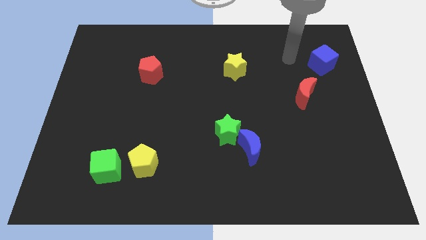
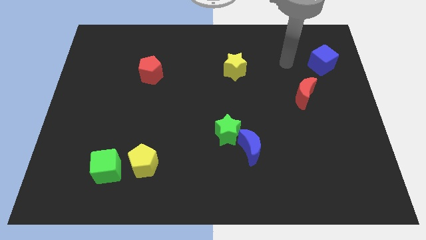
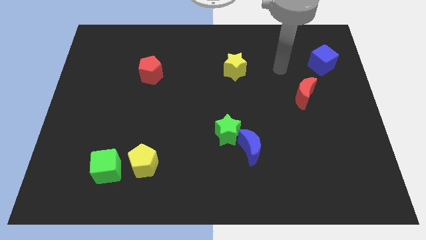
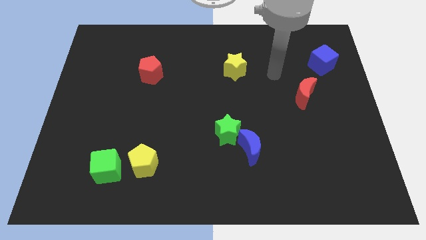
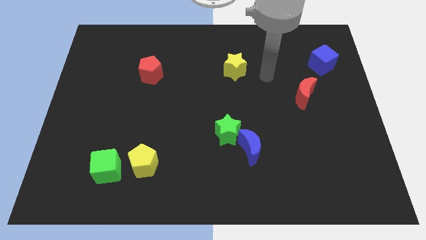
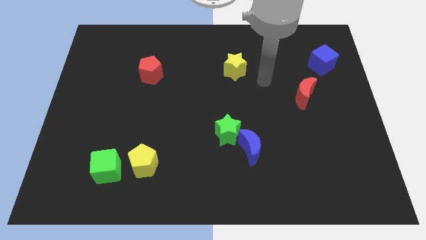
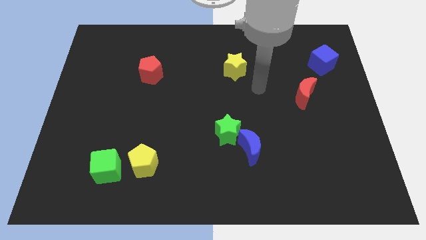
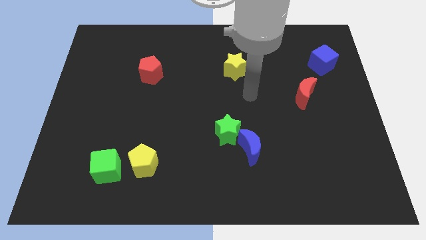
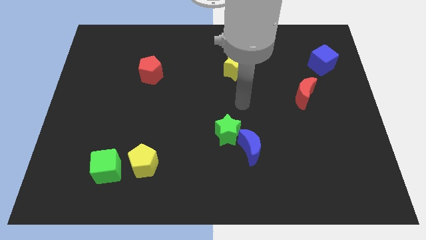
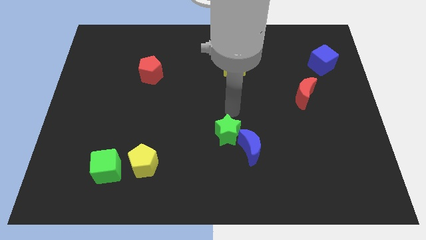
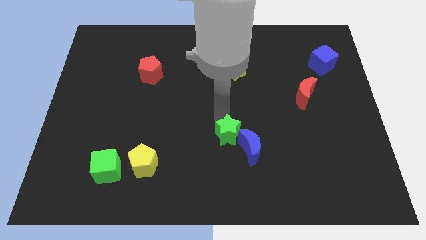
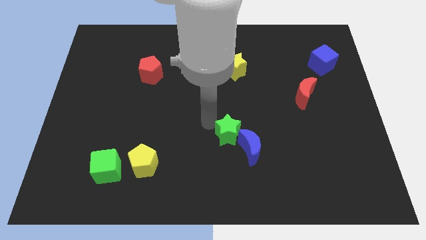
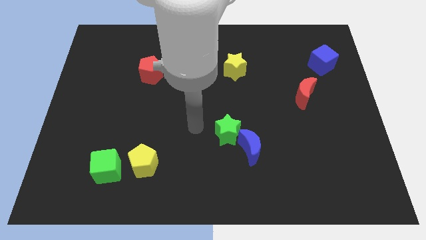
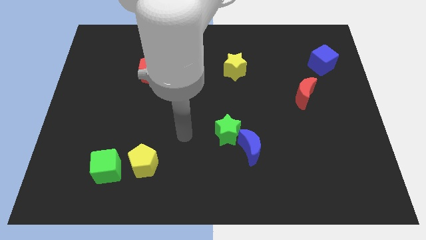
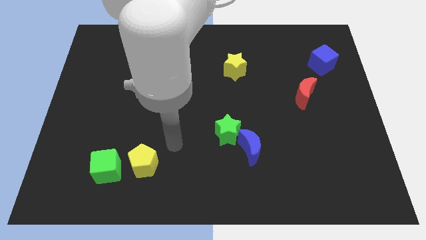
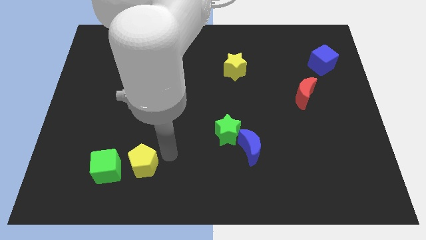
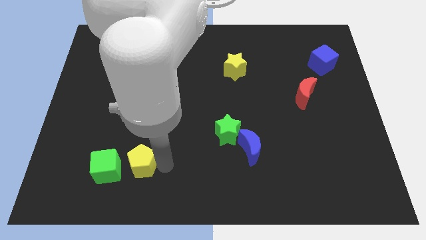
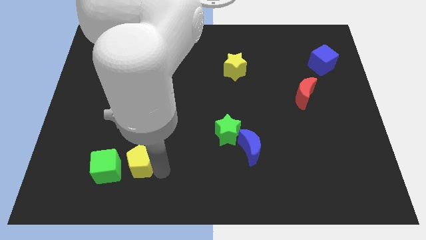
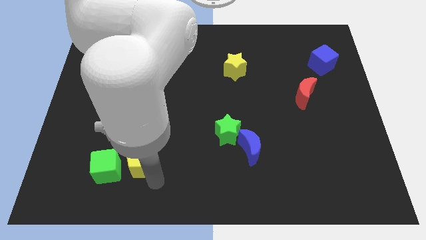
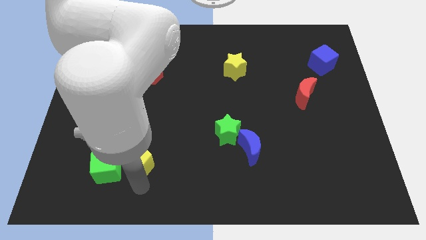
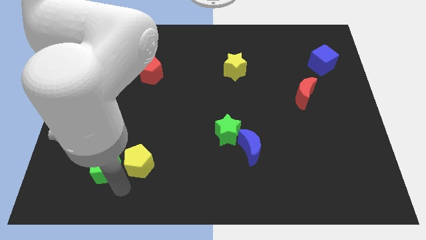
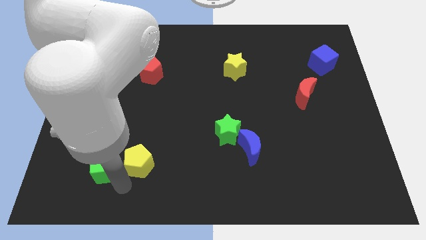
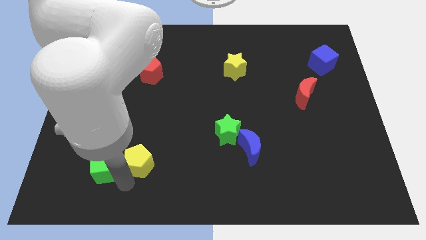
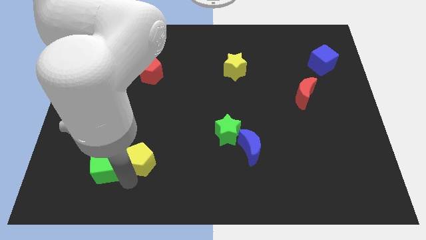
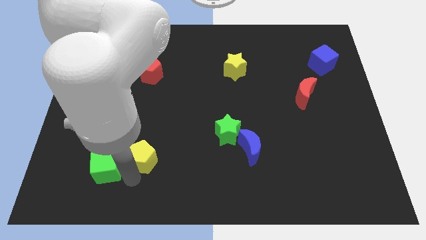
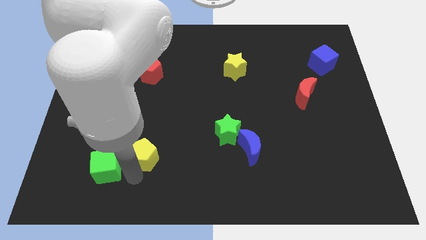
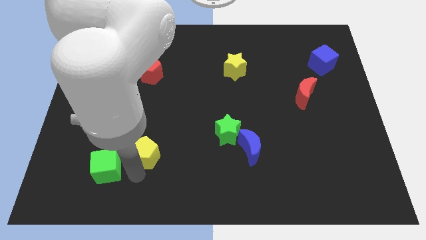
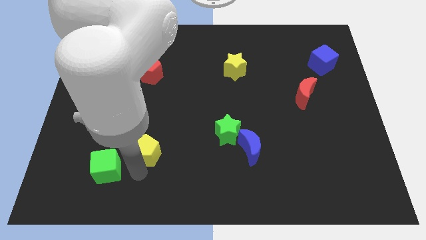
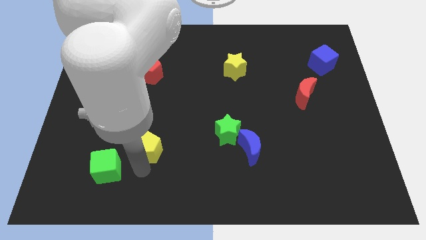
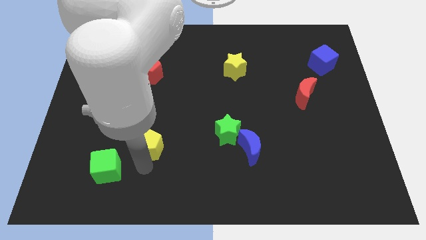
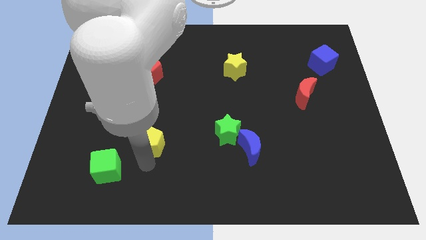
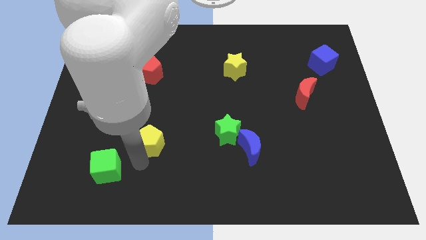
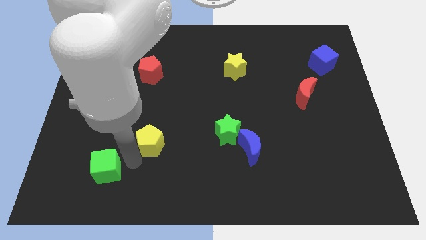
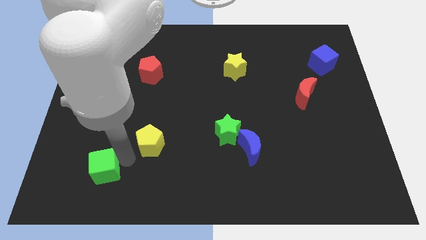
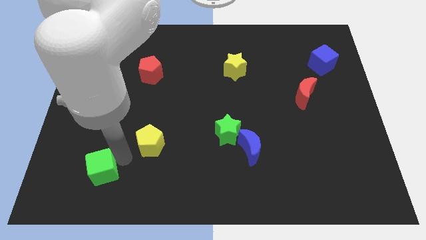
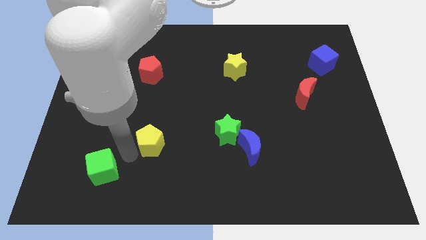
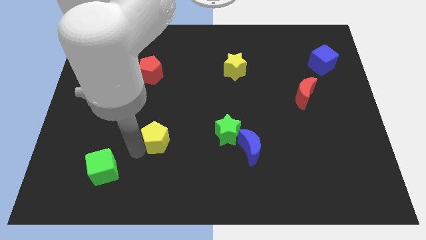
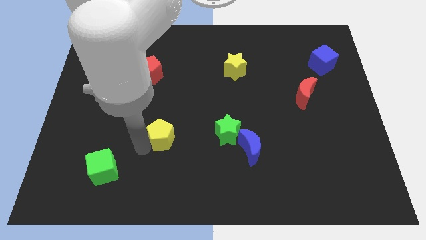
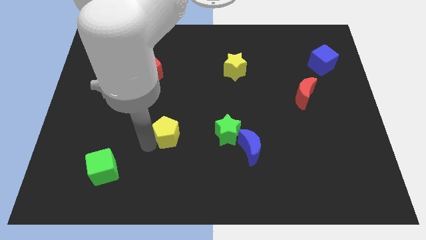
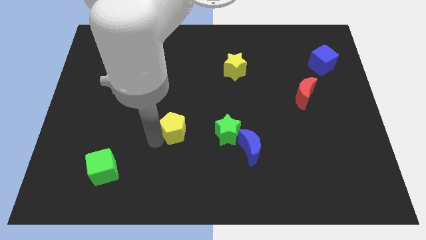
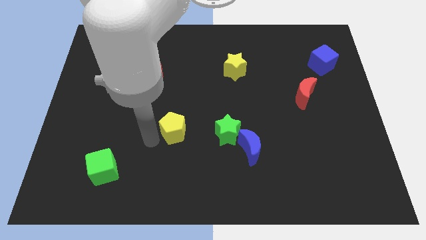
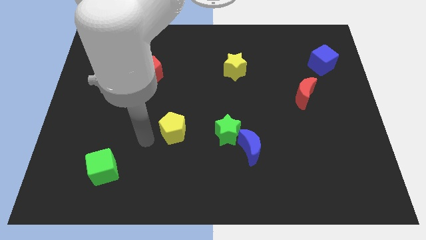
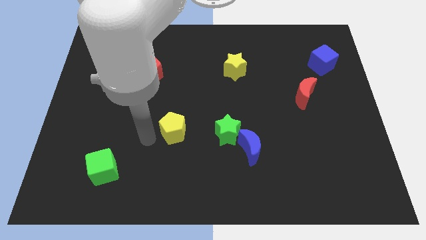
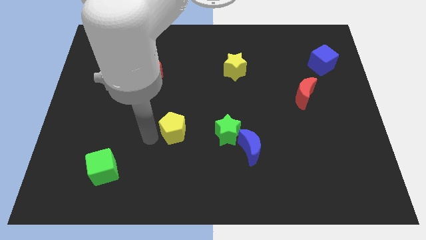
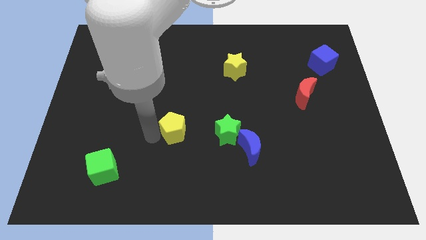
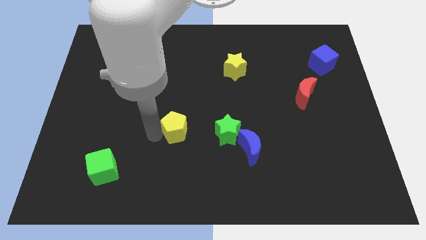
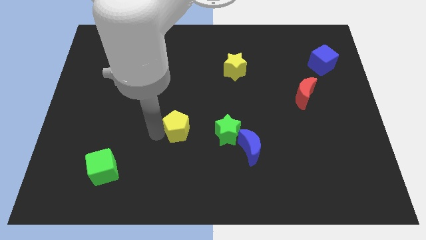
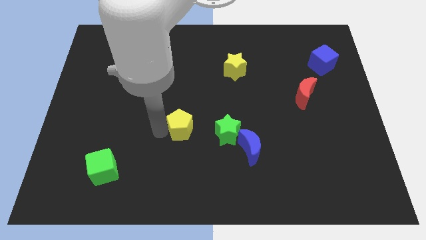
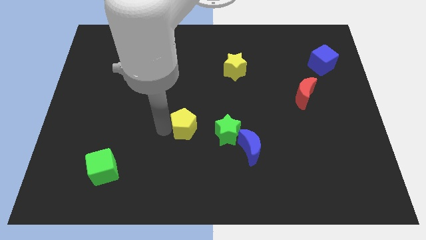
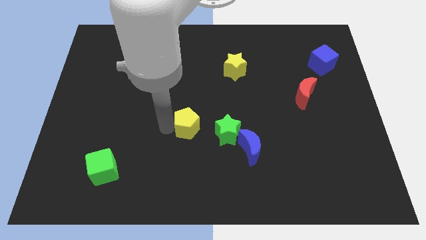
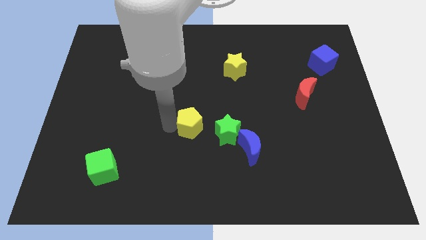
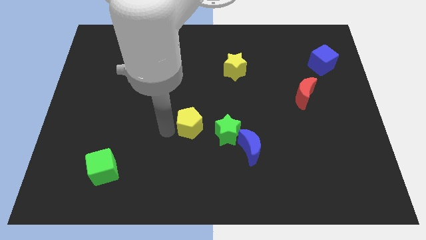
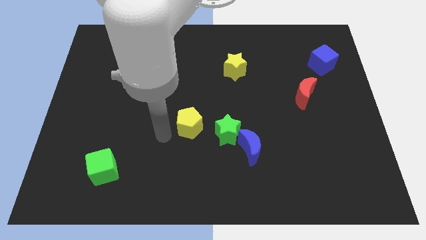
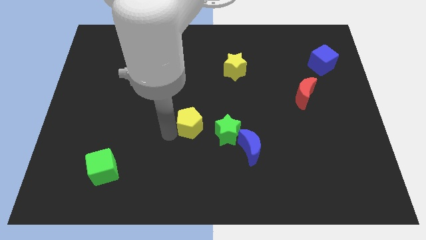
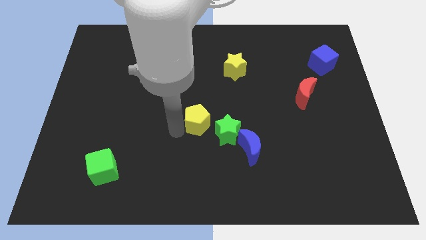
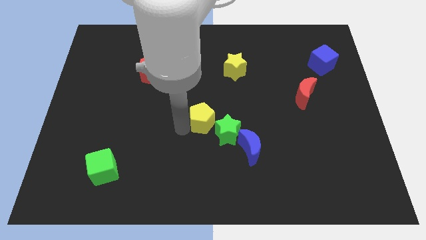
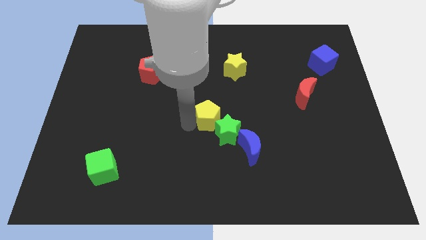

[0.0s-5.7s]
slide the yellow pentagon diagonally up and to the left of the blue moon

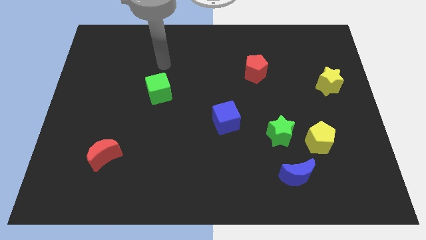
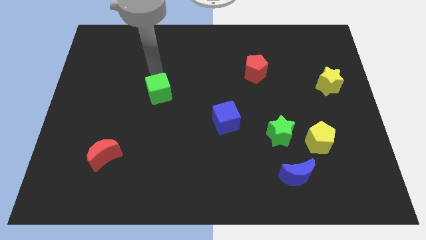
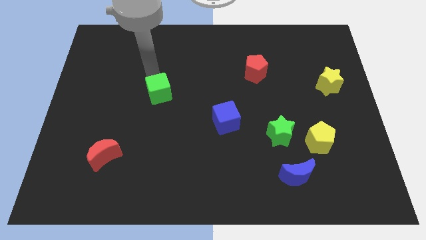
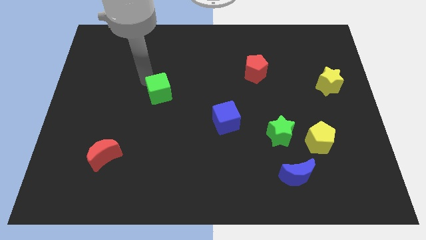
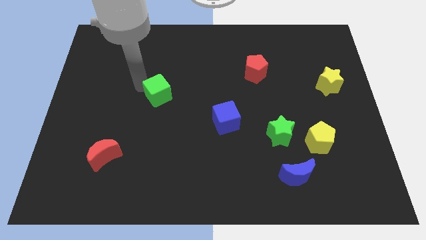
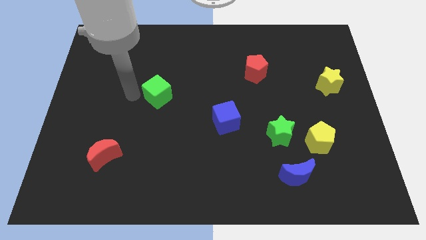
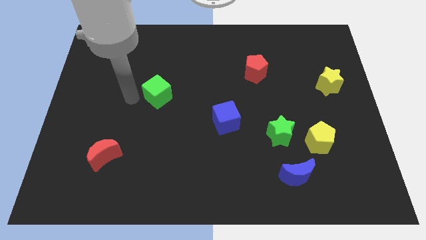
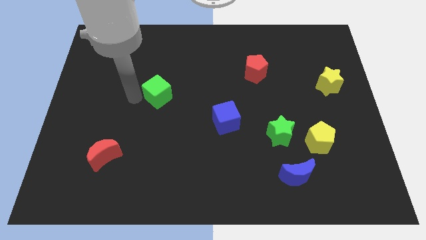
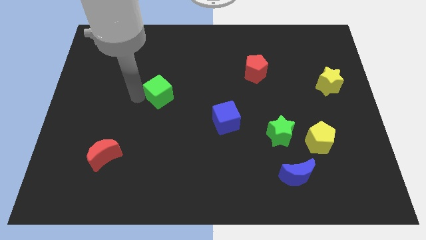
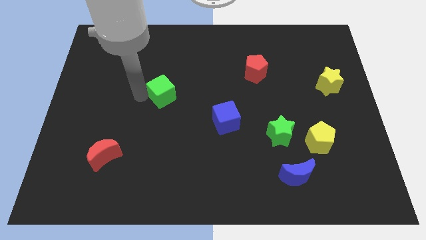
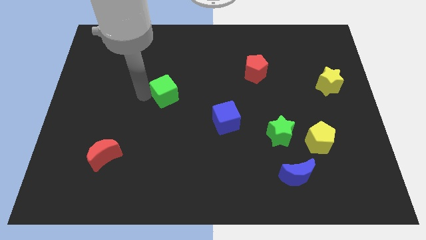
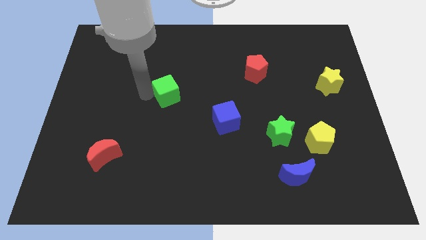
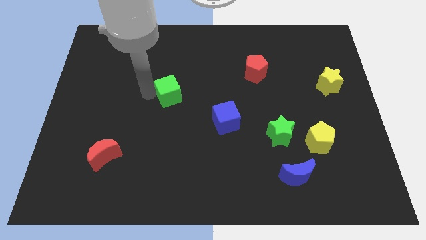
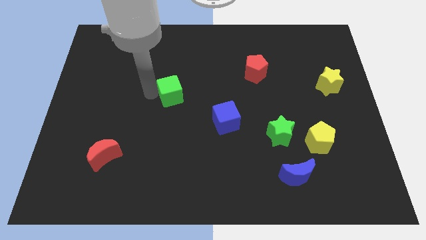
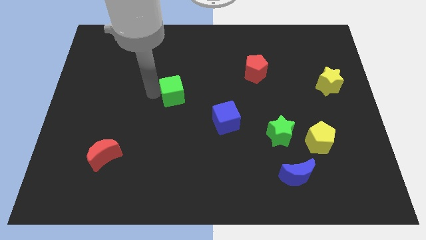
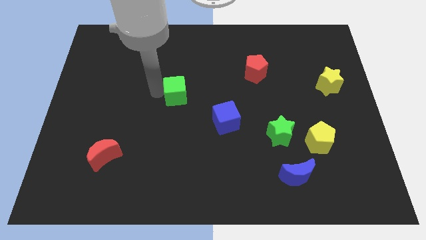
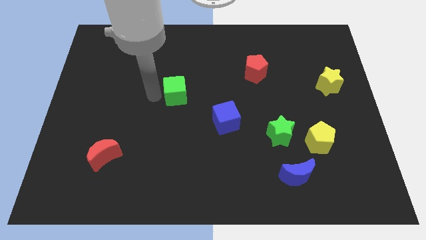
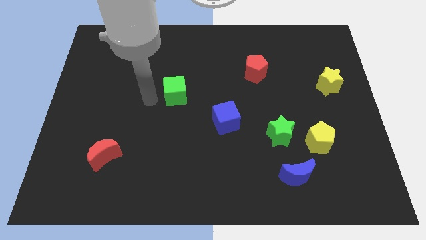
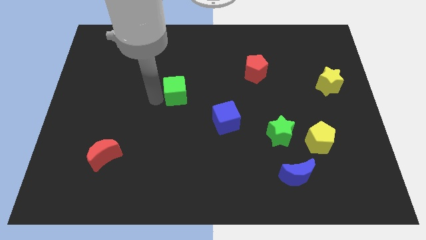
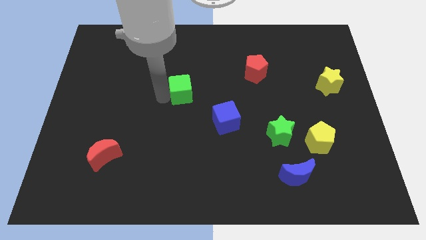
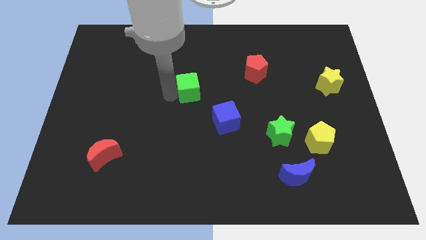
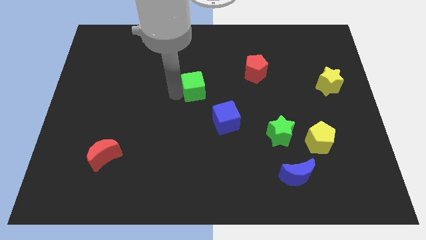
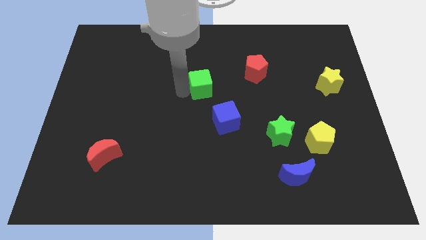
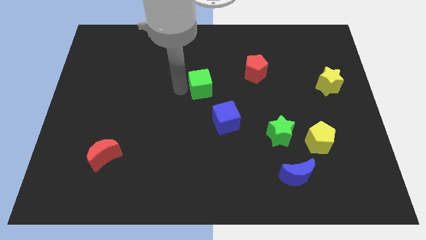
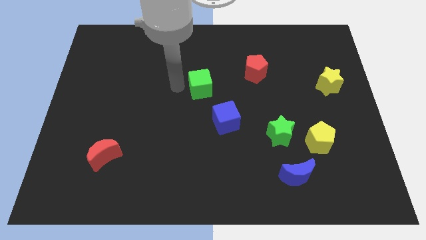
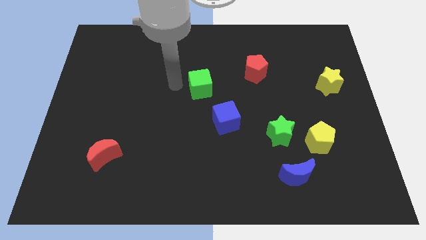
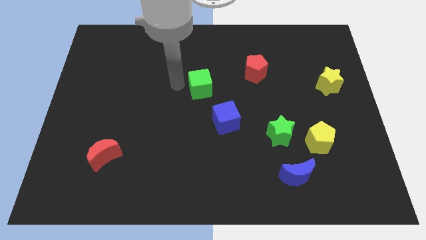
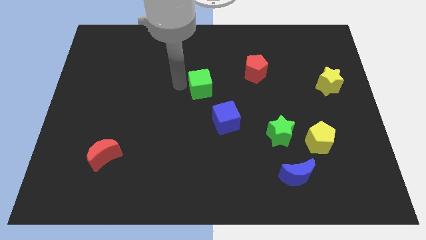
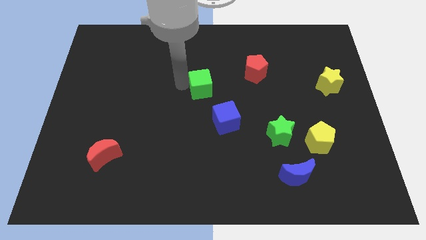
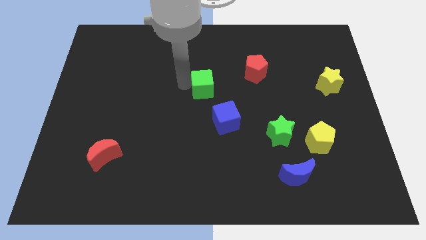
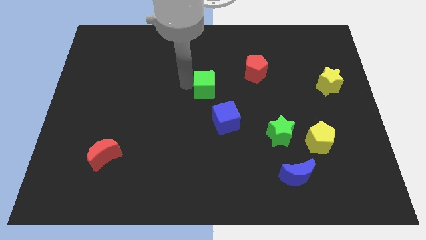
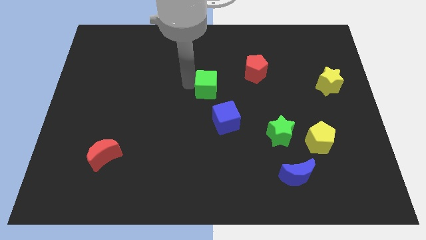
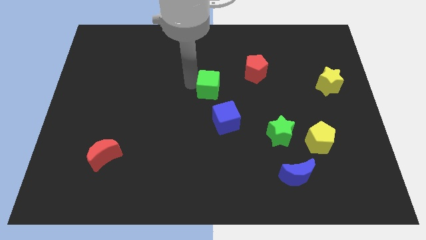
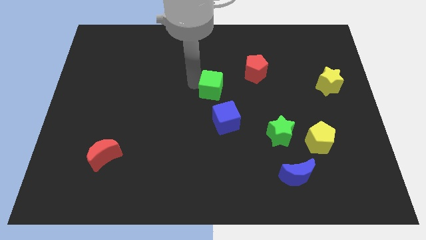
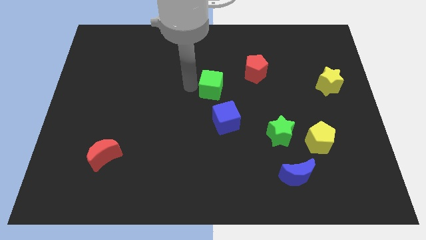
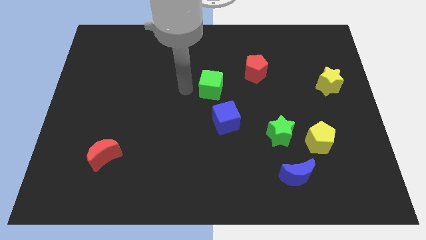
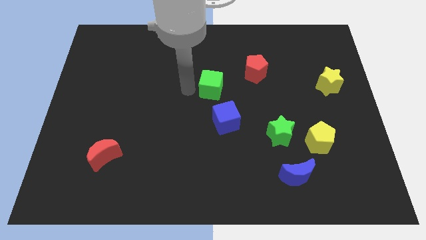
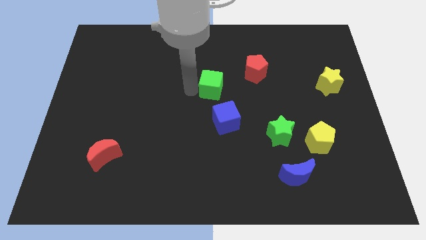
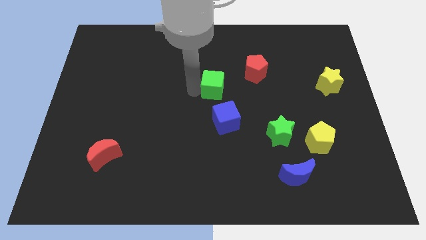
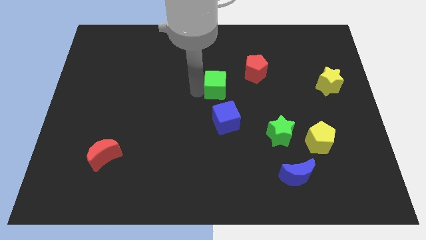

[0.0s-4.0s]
put the green cube to the bottom left of the red pentagon
